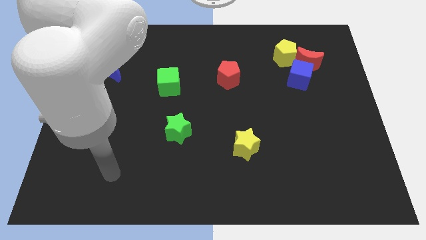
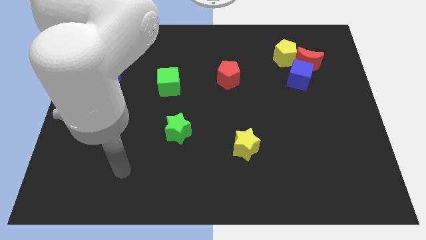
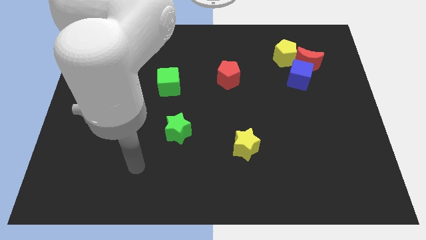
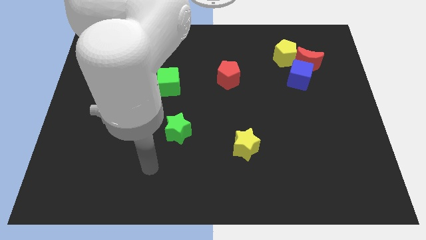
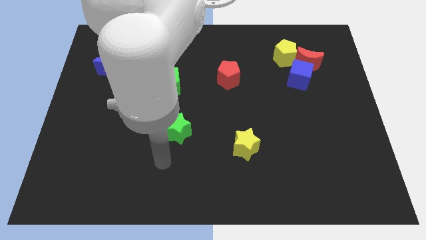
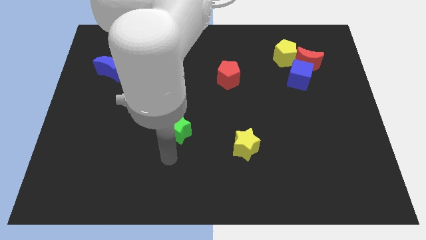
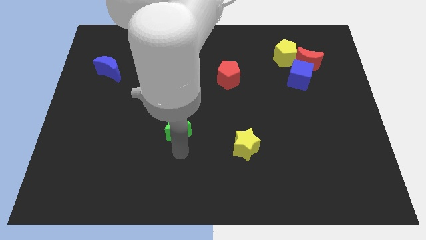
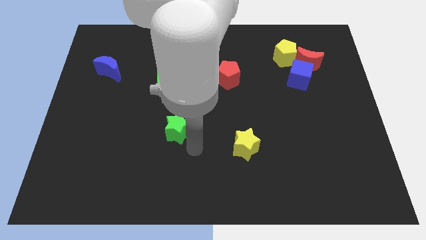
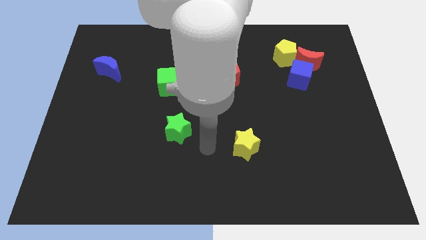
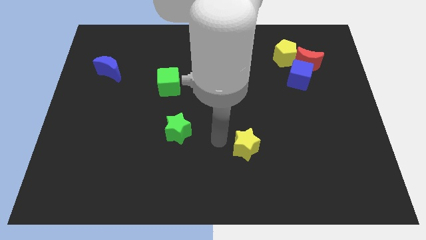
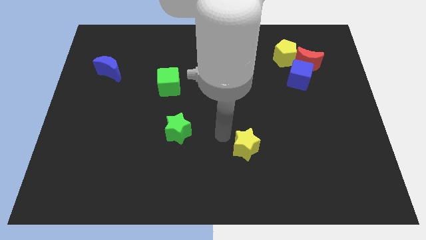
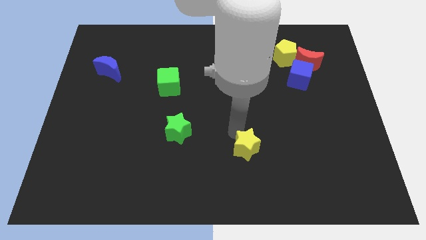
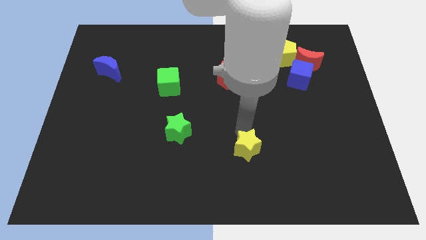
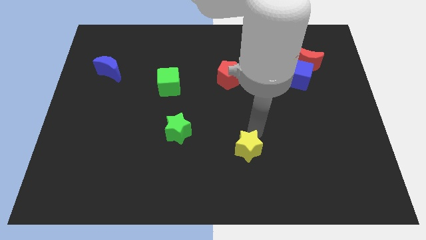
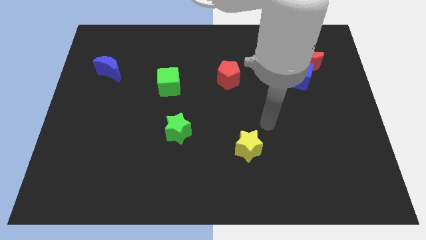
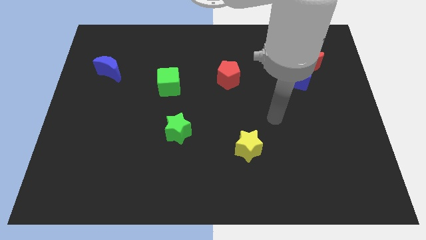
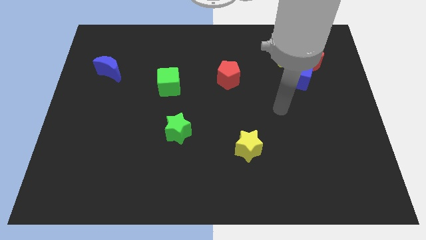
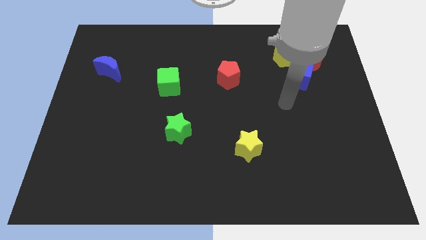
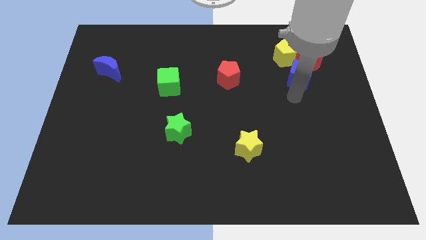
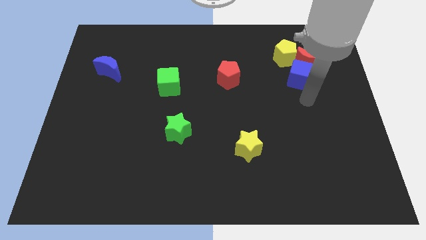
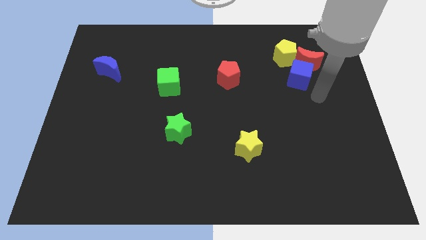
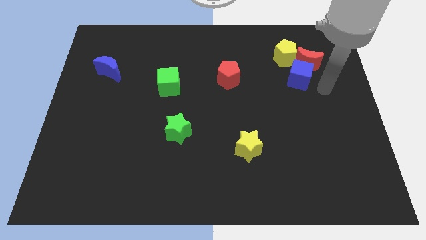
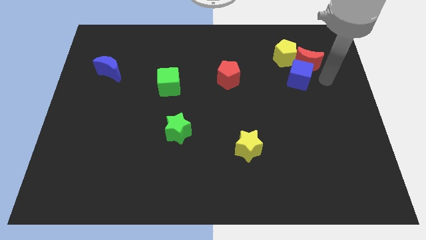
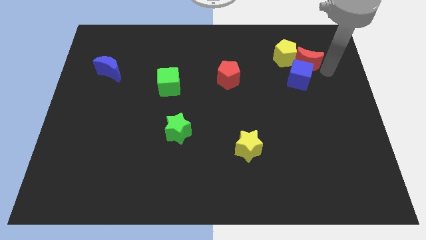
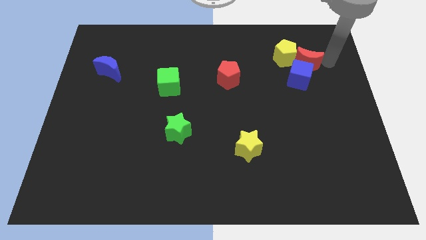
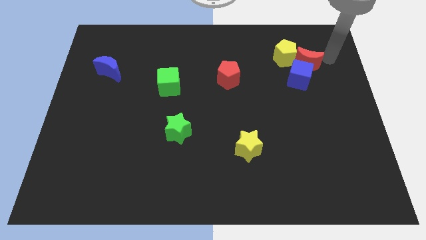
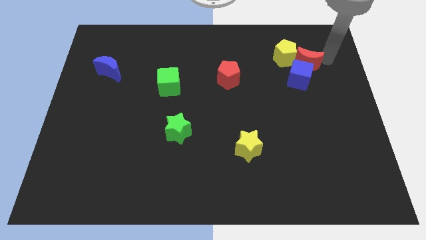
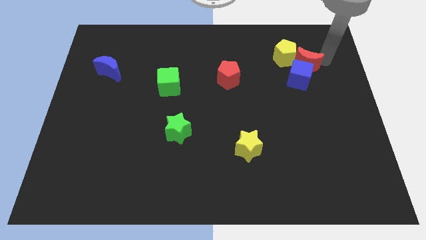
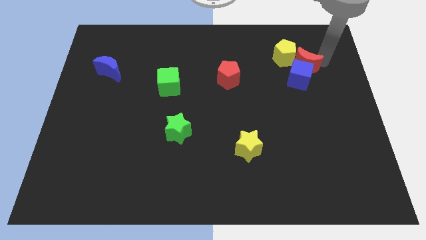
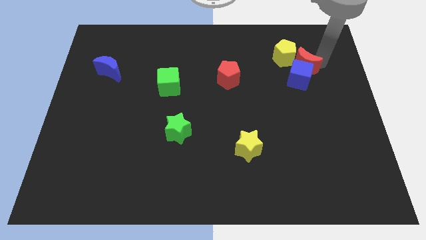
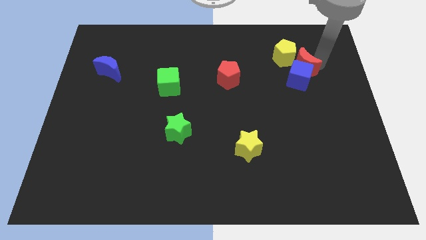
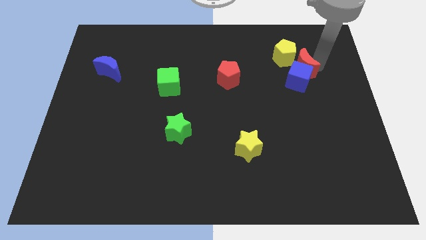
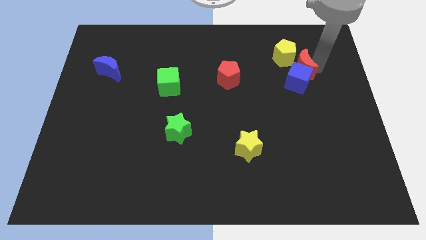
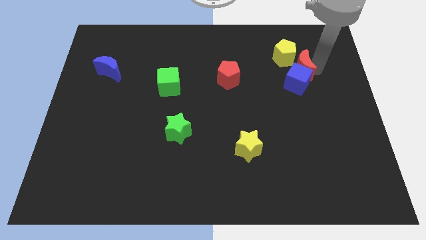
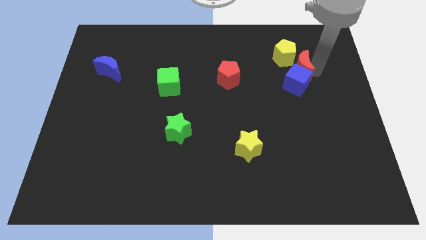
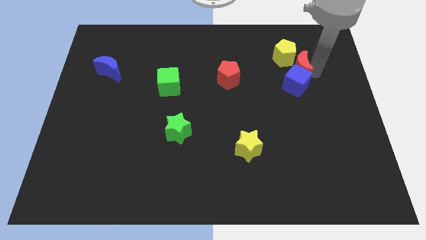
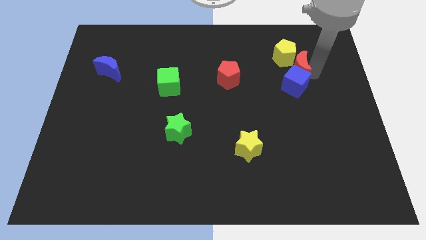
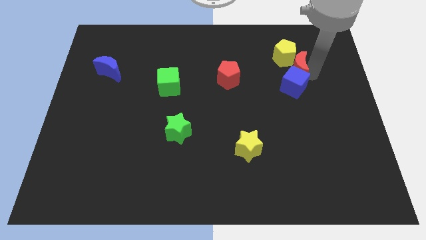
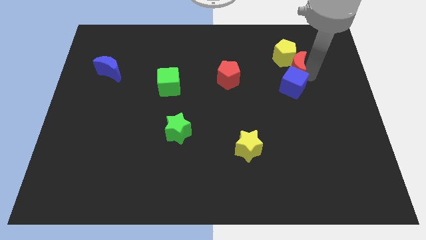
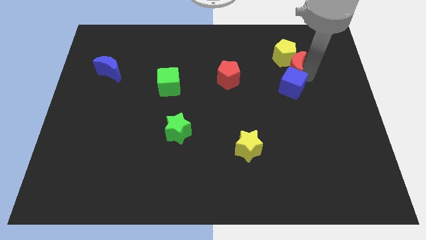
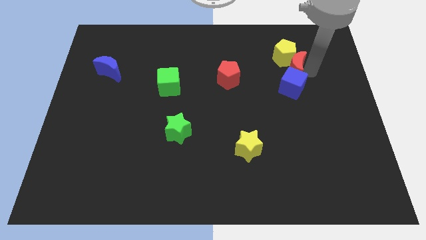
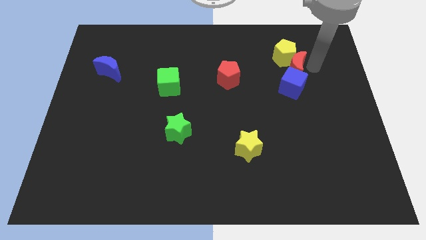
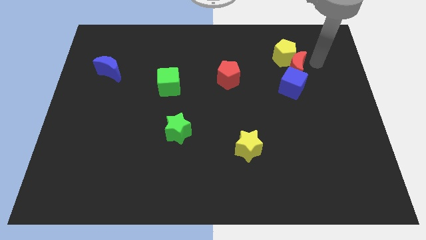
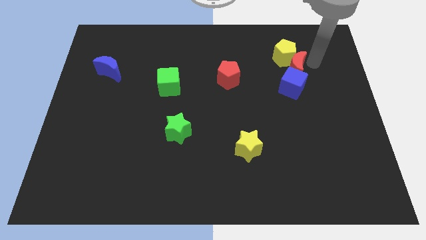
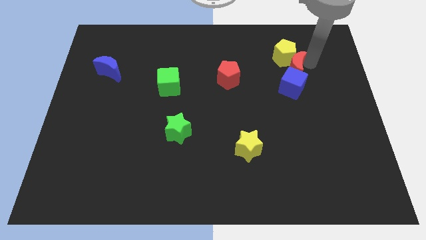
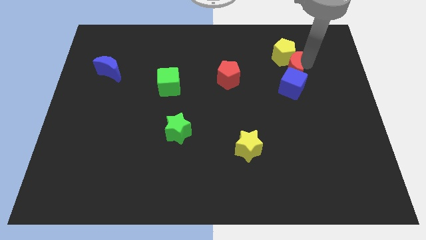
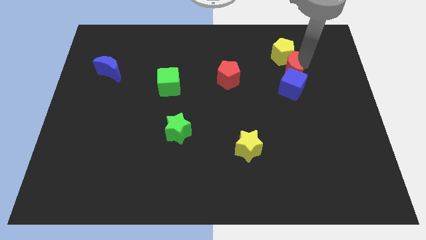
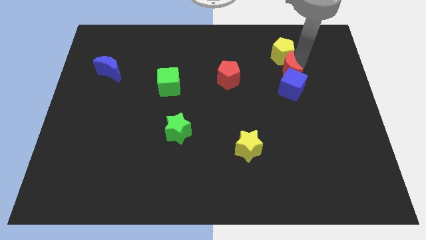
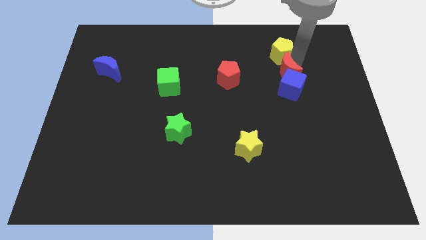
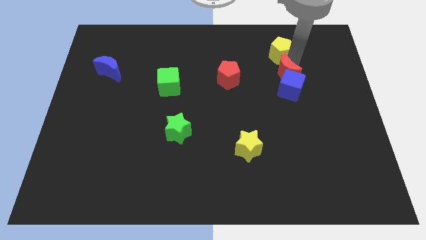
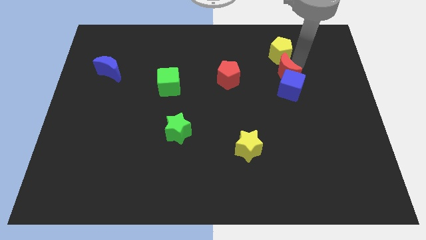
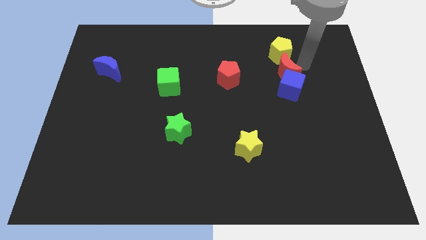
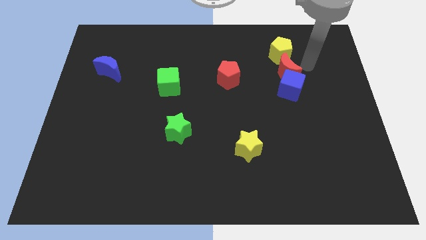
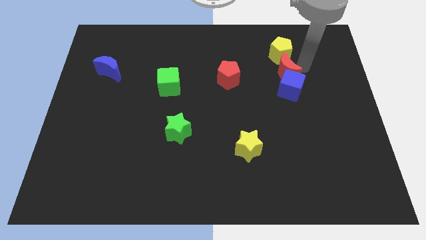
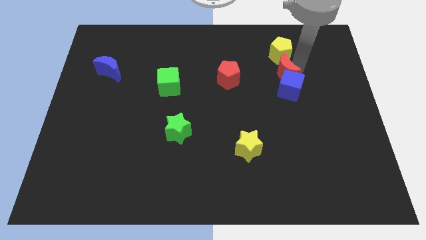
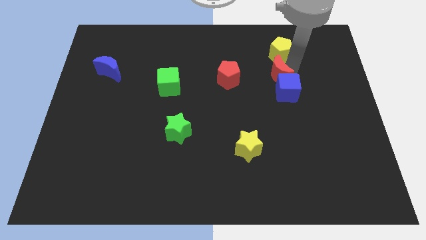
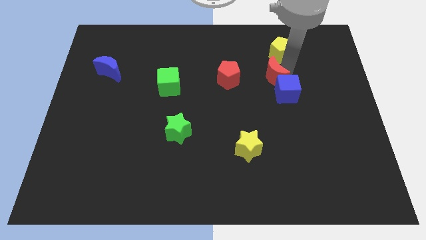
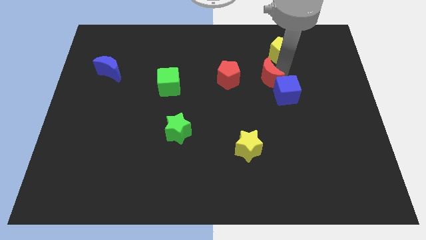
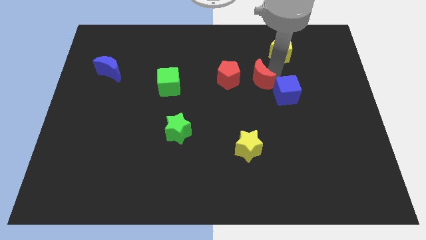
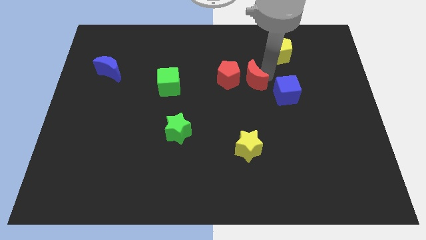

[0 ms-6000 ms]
slide the red moon to the middle of the board

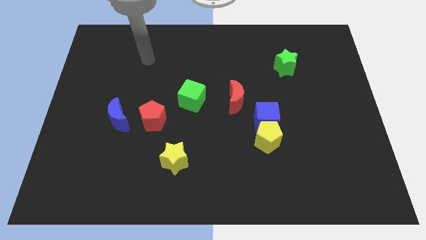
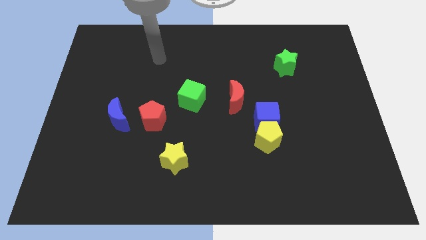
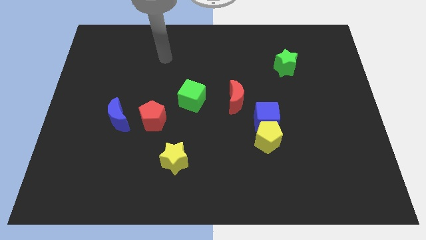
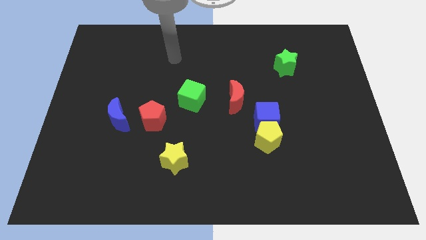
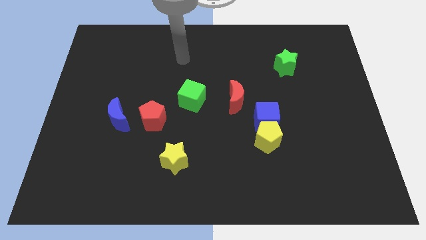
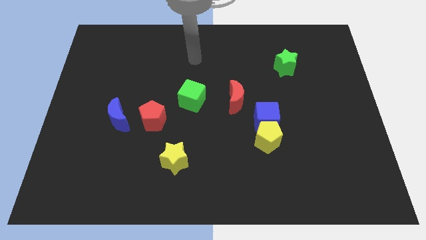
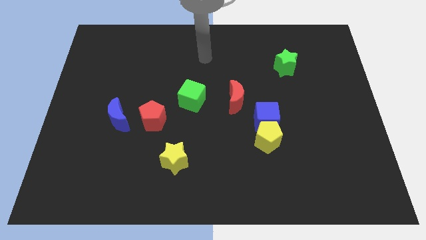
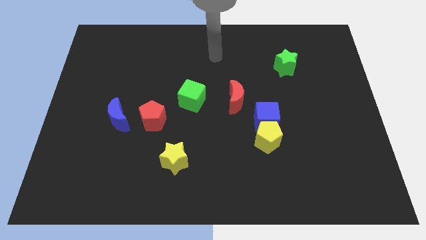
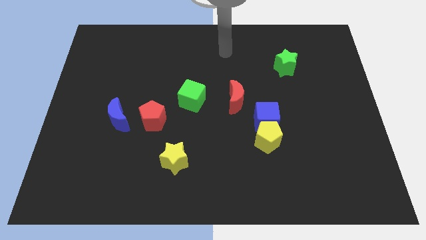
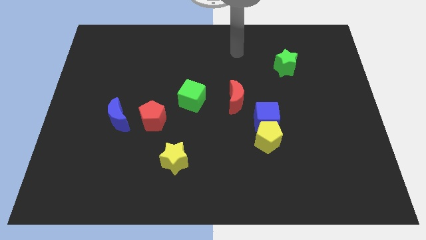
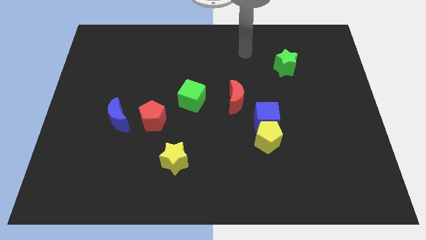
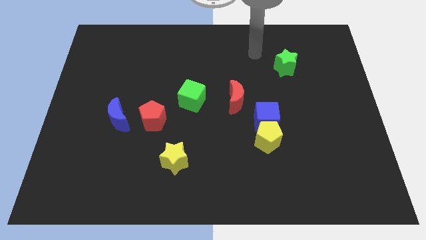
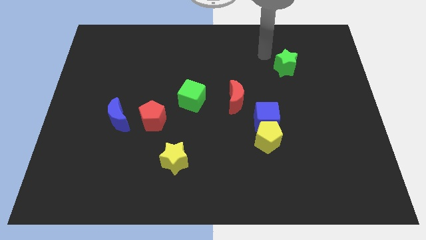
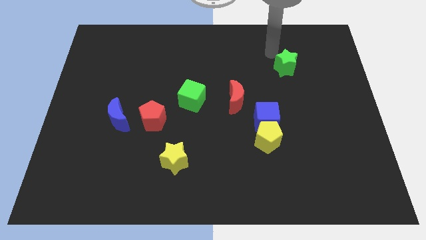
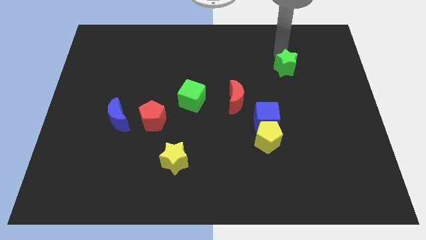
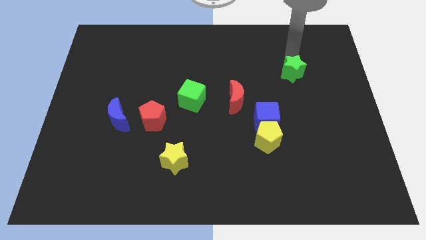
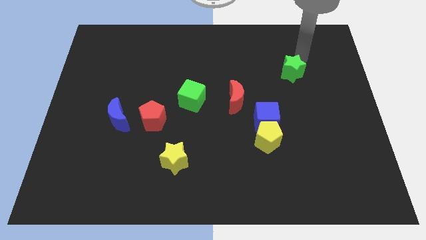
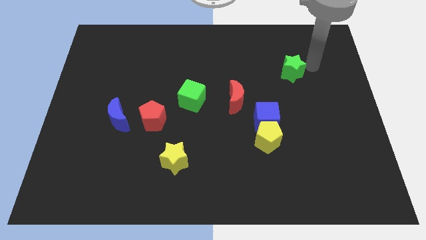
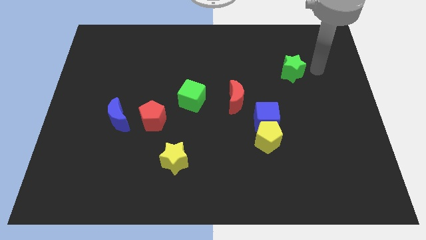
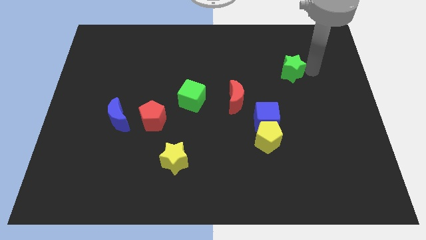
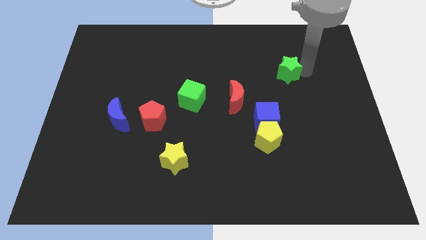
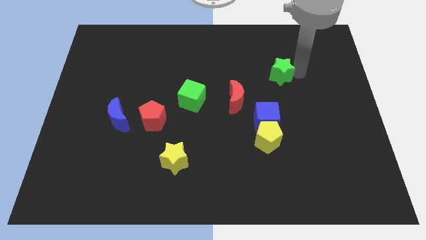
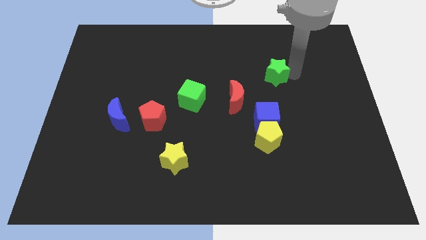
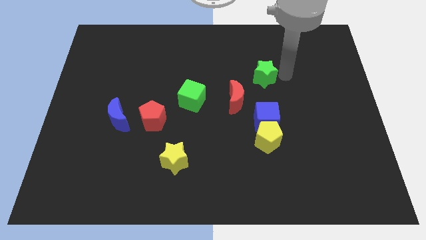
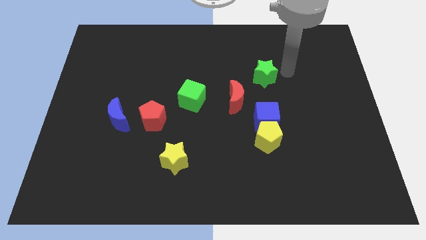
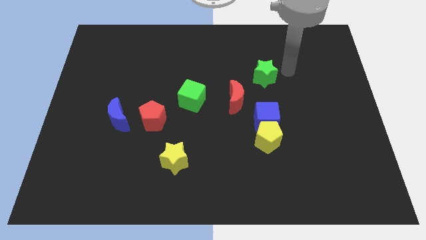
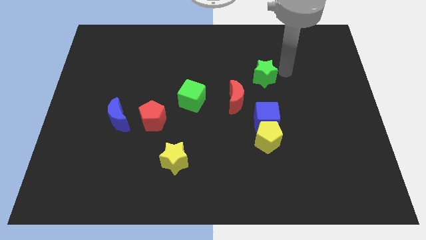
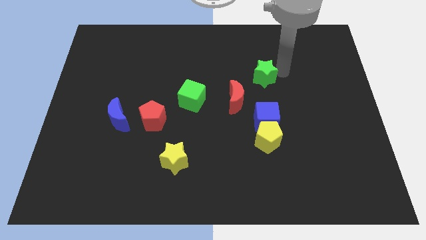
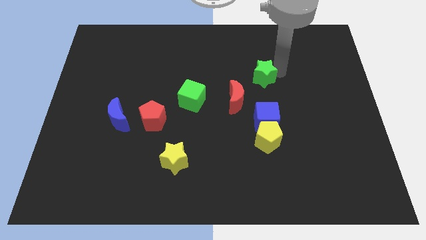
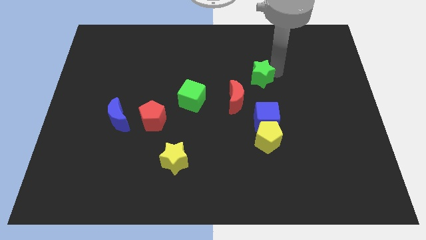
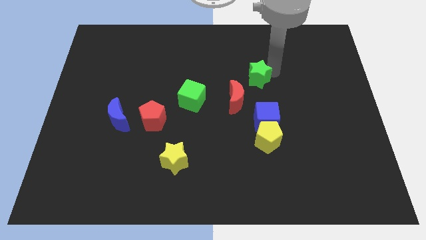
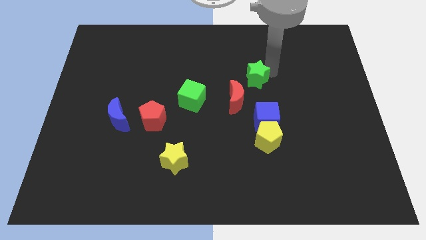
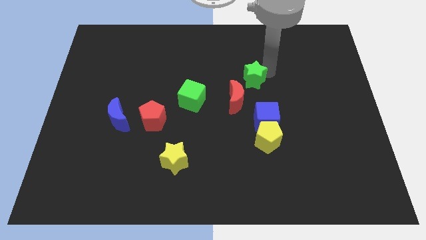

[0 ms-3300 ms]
slide the green star to the middle of the board
